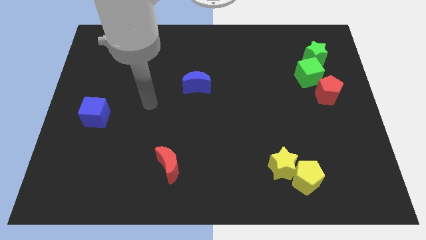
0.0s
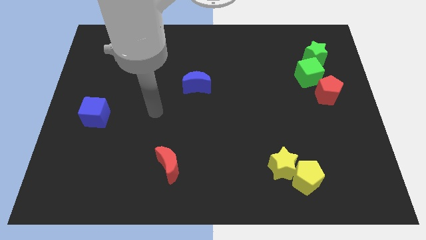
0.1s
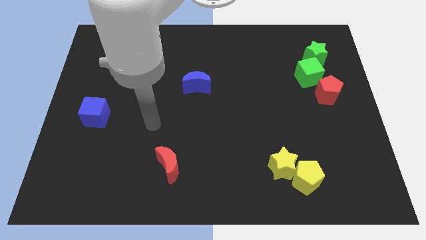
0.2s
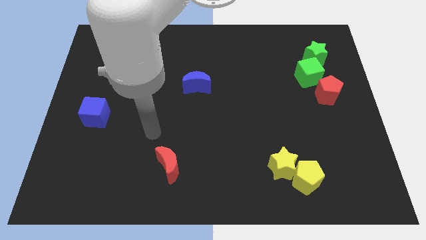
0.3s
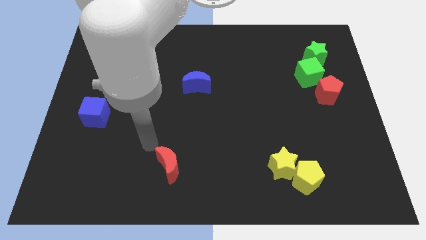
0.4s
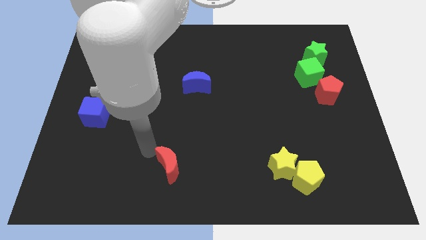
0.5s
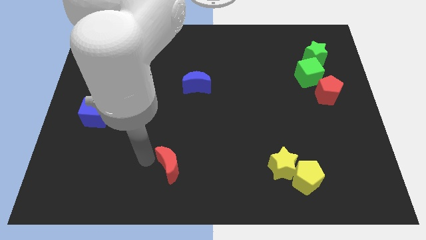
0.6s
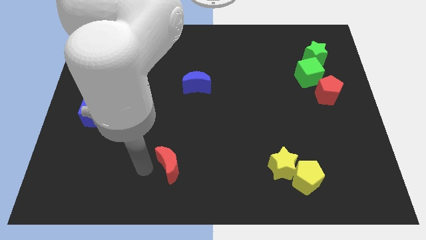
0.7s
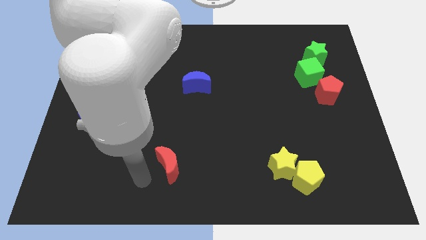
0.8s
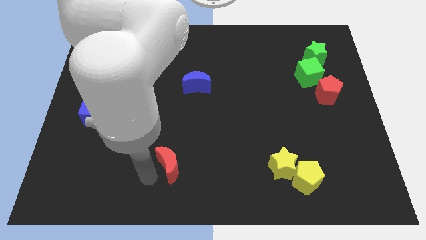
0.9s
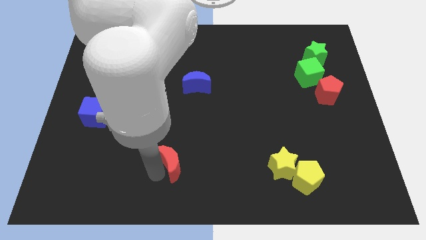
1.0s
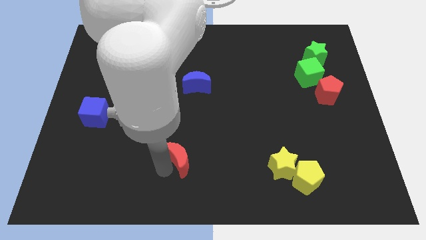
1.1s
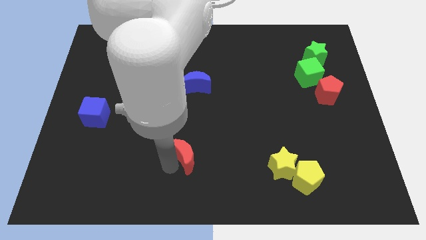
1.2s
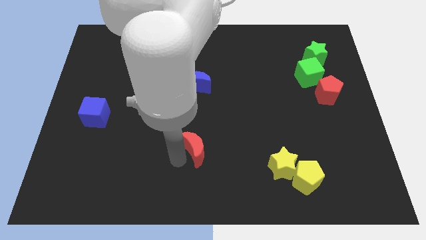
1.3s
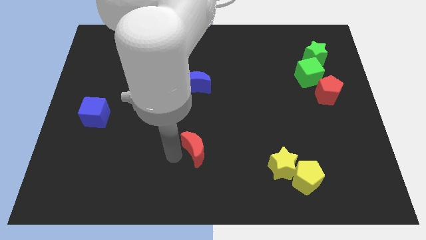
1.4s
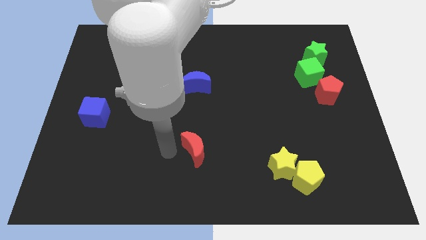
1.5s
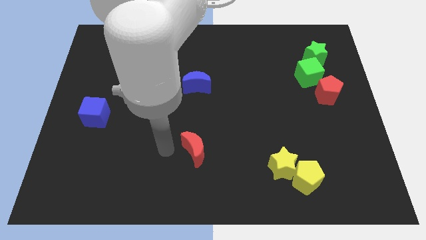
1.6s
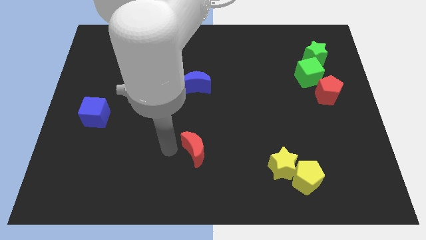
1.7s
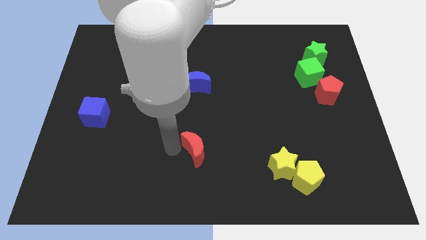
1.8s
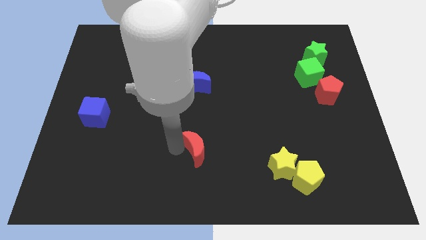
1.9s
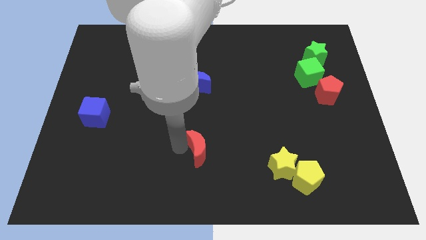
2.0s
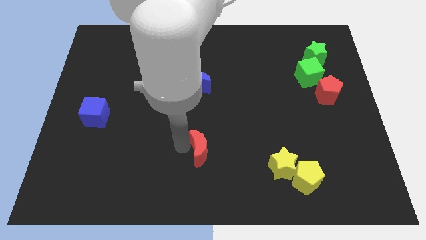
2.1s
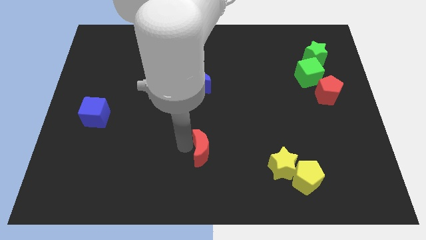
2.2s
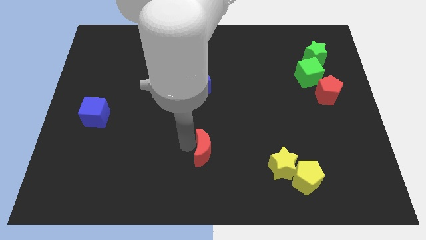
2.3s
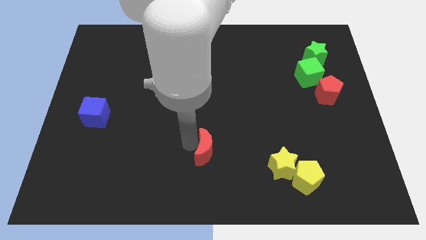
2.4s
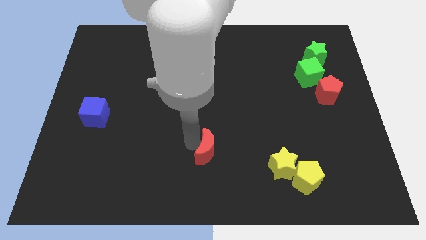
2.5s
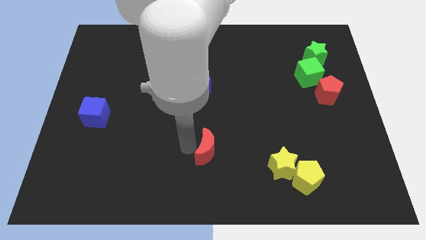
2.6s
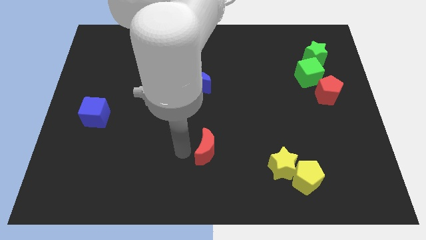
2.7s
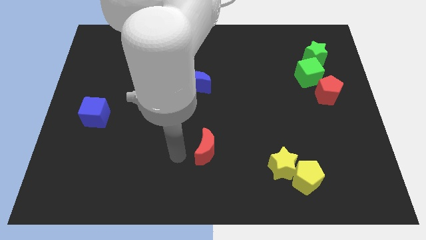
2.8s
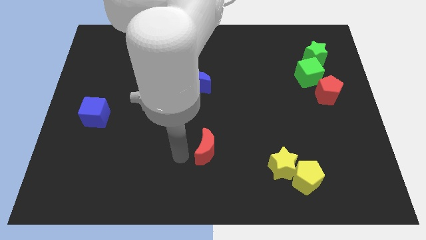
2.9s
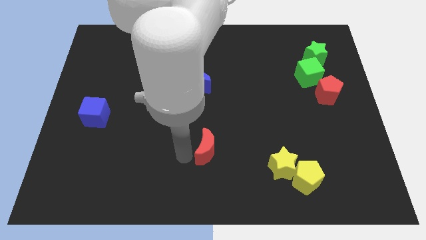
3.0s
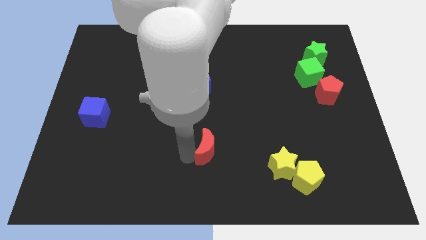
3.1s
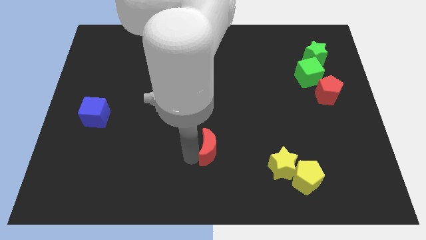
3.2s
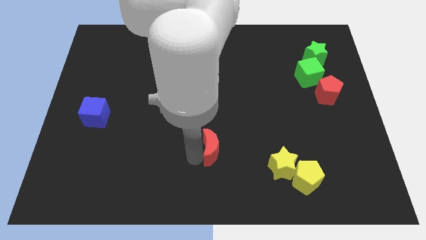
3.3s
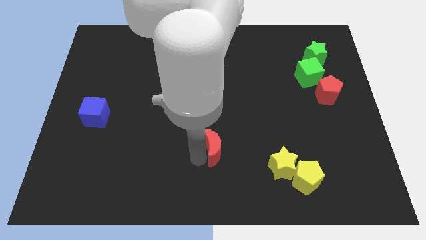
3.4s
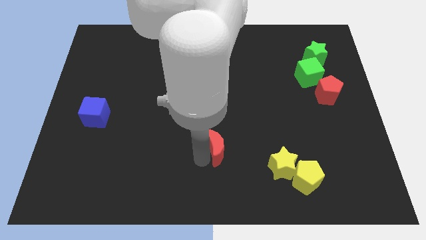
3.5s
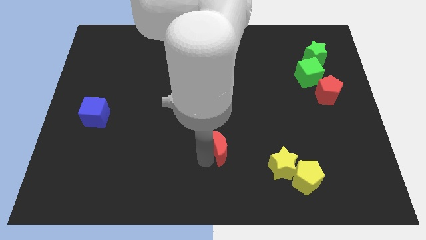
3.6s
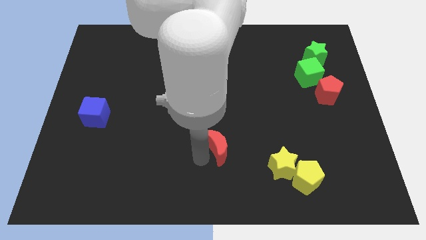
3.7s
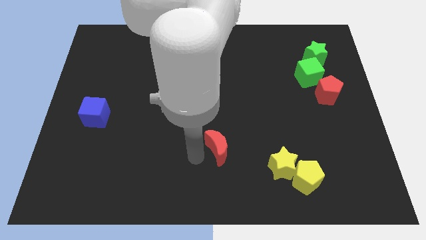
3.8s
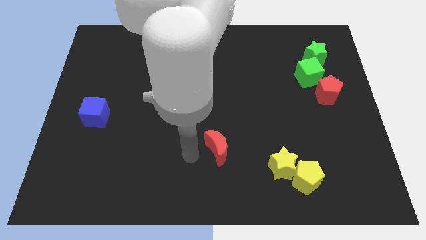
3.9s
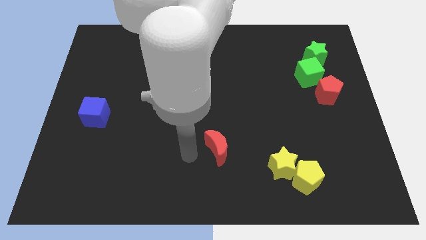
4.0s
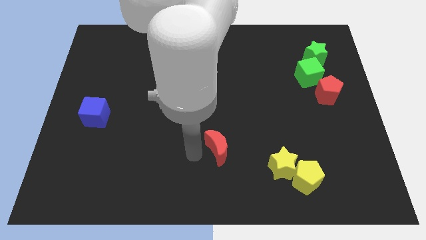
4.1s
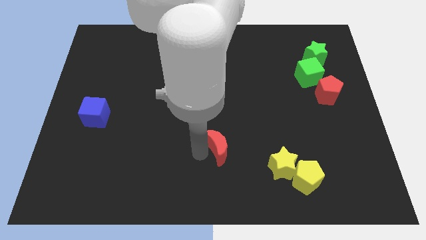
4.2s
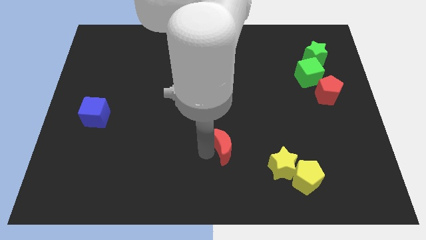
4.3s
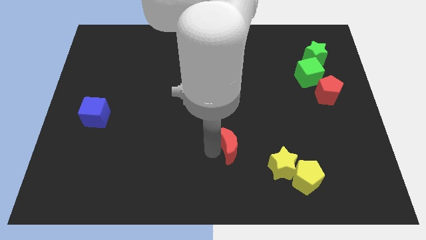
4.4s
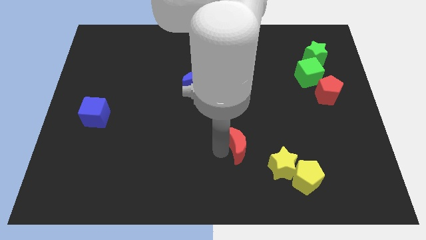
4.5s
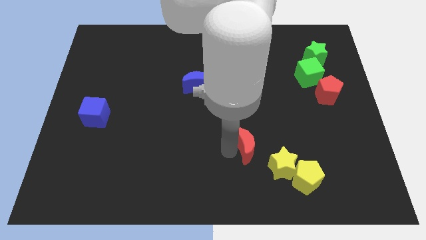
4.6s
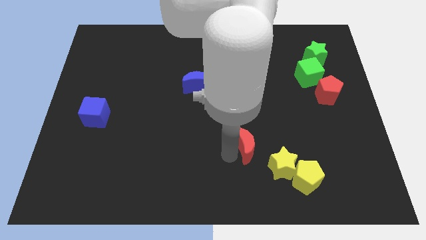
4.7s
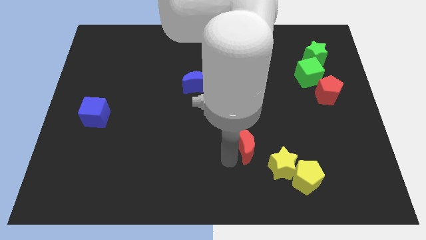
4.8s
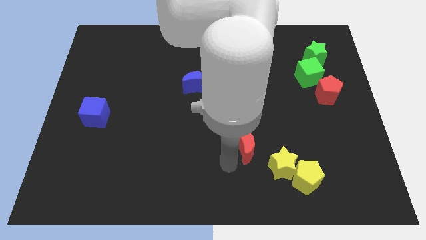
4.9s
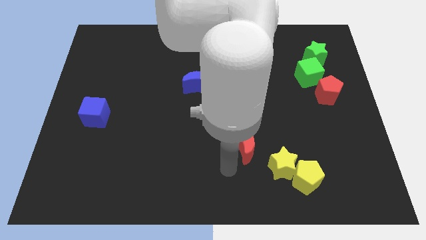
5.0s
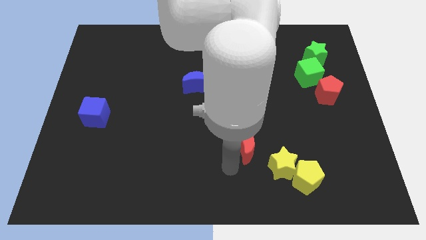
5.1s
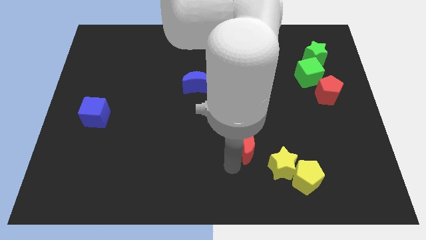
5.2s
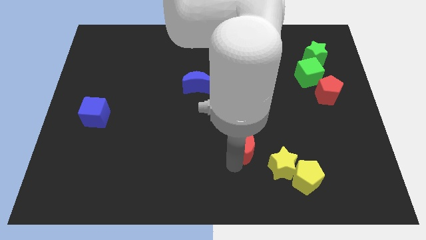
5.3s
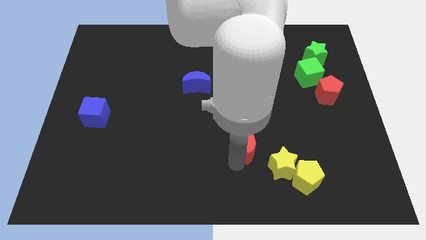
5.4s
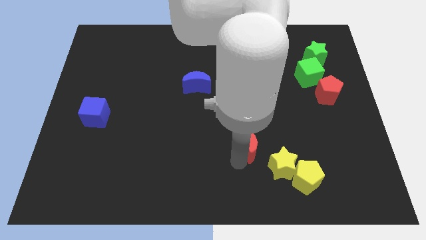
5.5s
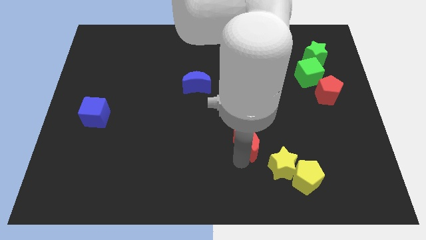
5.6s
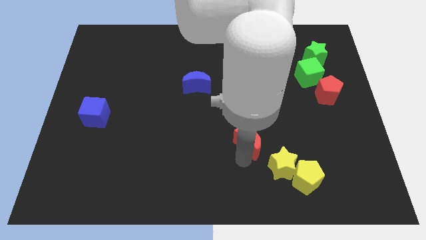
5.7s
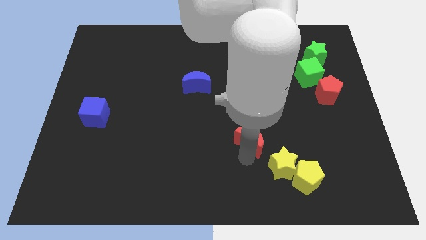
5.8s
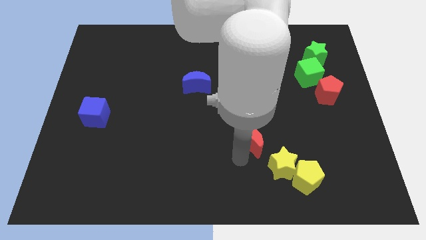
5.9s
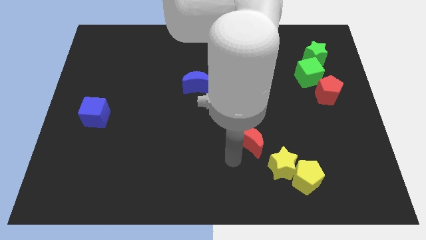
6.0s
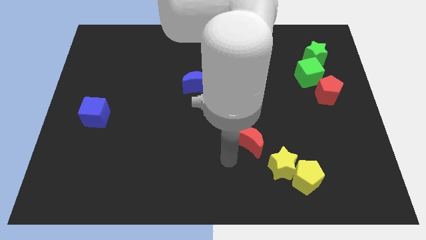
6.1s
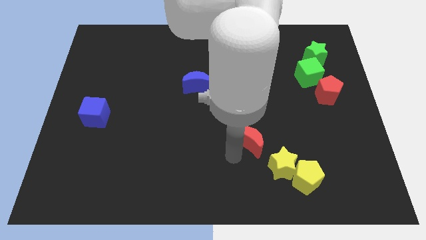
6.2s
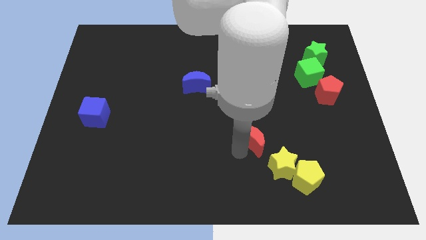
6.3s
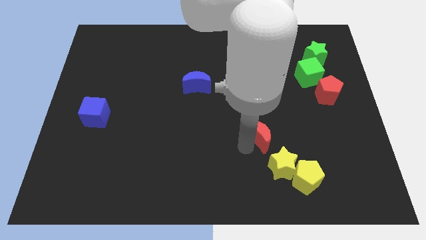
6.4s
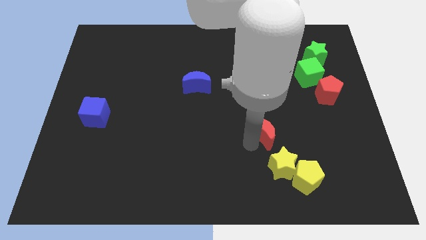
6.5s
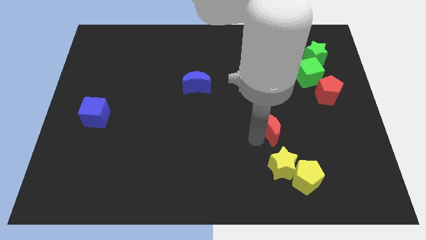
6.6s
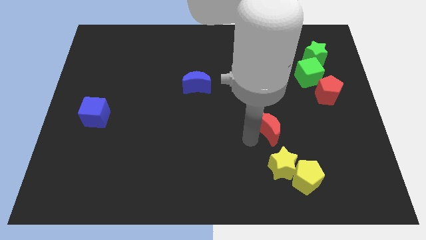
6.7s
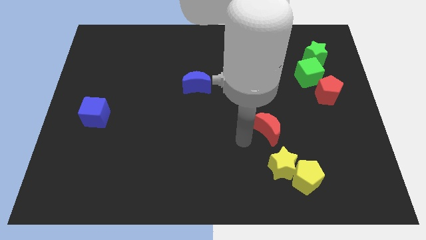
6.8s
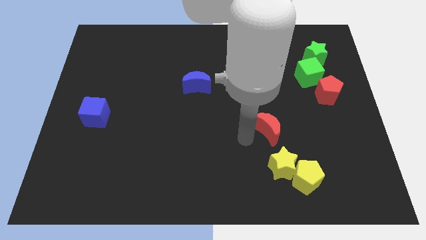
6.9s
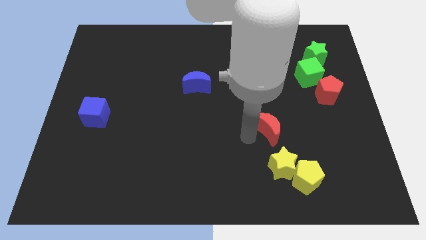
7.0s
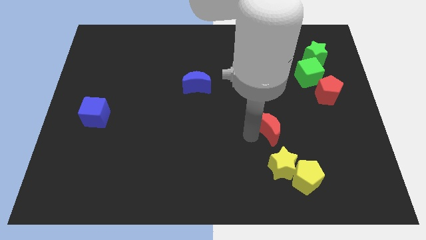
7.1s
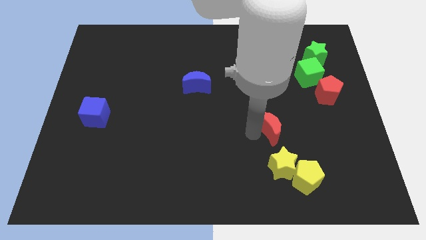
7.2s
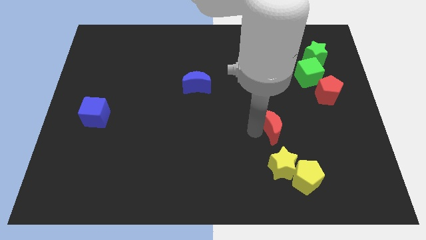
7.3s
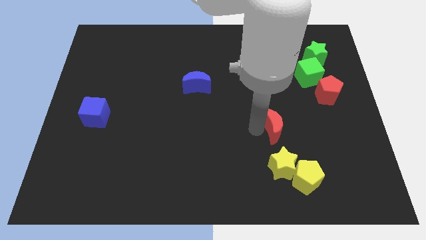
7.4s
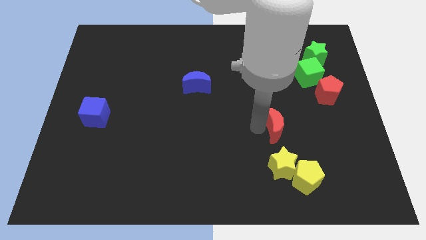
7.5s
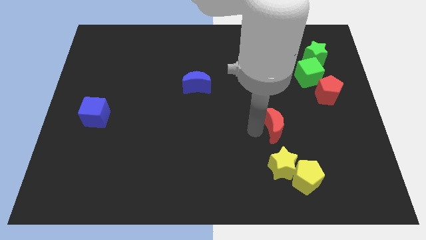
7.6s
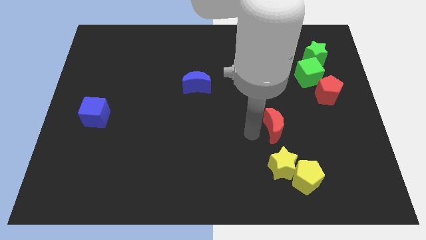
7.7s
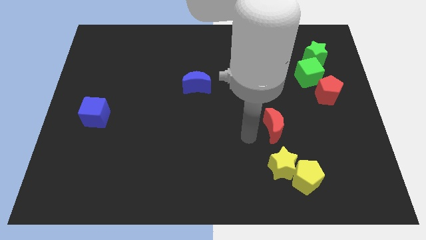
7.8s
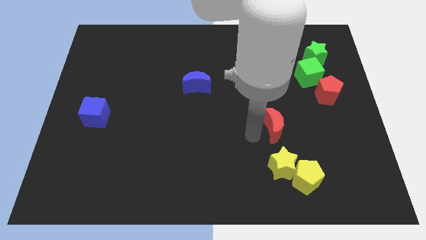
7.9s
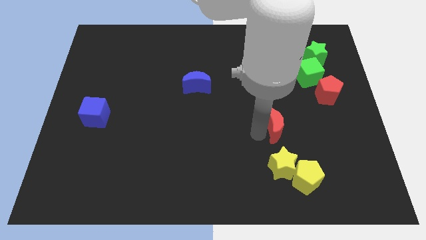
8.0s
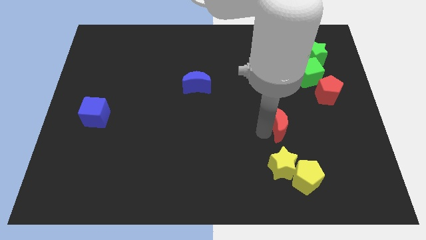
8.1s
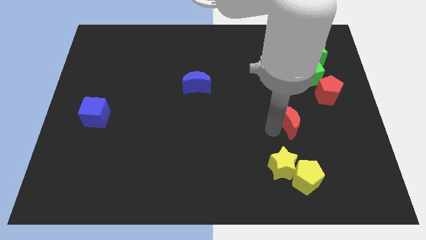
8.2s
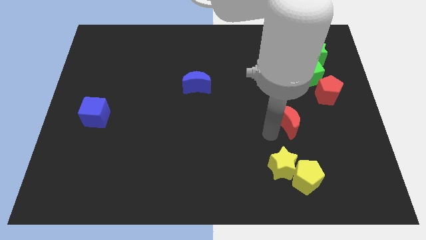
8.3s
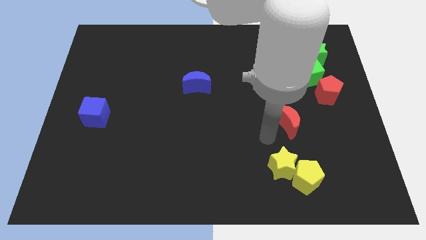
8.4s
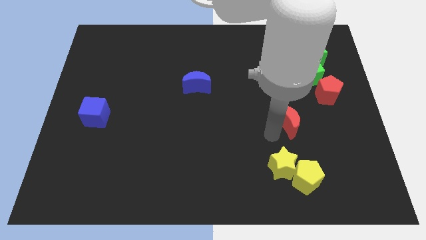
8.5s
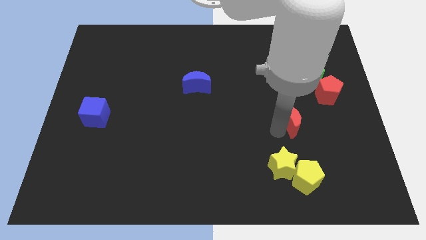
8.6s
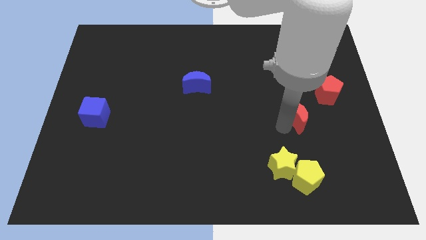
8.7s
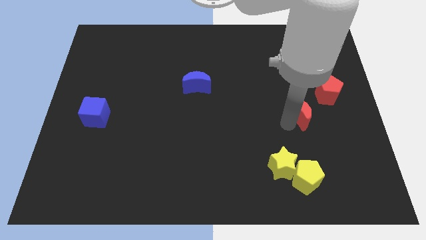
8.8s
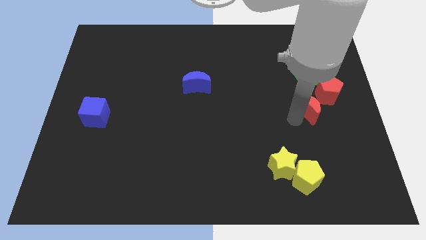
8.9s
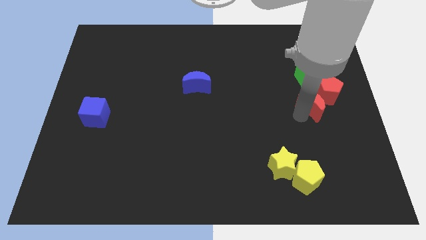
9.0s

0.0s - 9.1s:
put the red moon close to the red pentagon
